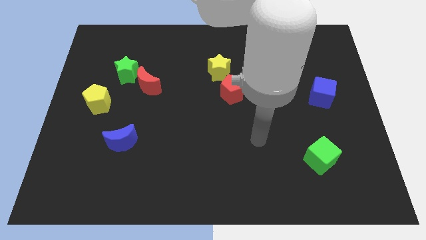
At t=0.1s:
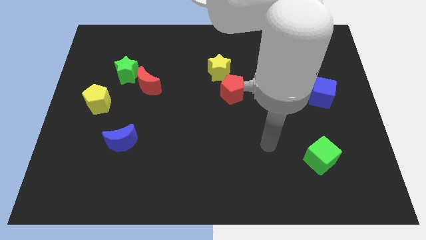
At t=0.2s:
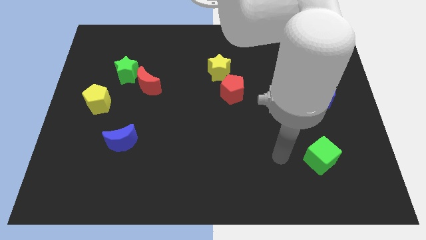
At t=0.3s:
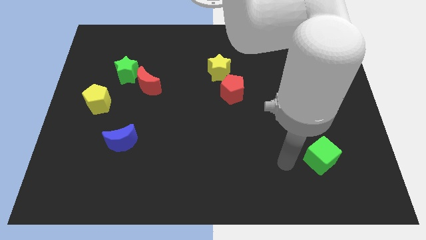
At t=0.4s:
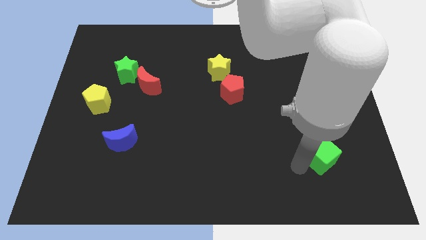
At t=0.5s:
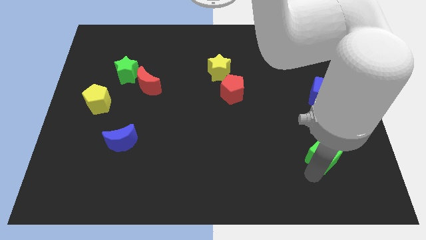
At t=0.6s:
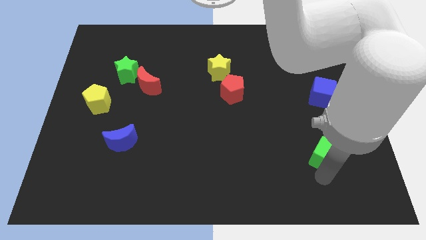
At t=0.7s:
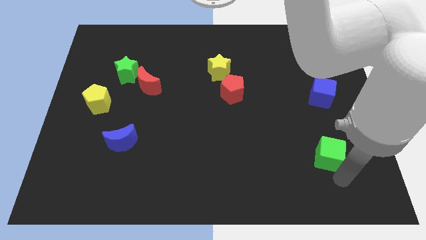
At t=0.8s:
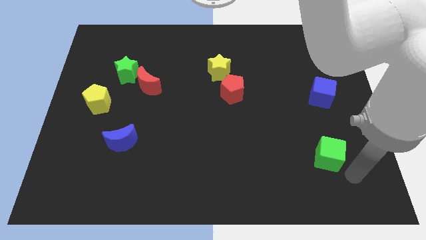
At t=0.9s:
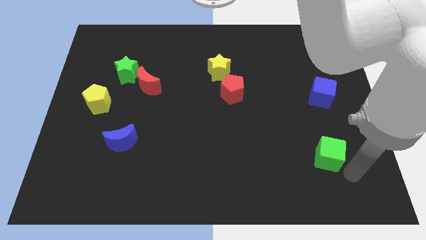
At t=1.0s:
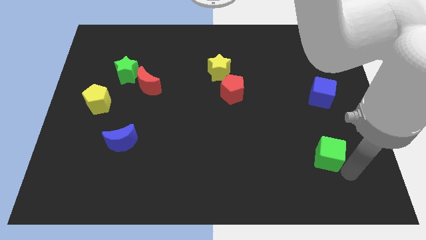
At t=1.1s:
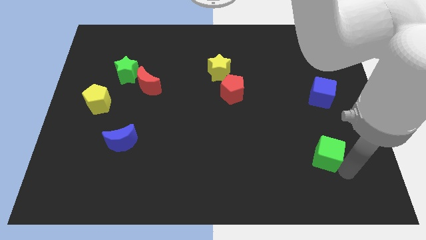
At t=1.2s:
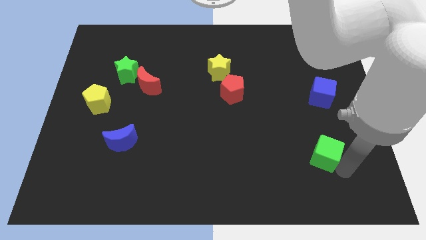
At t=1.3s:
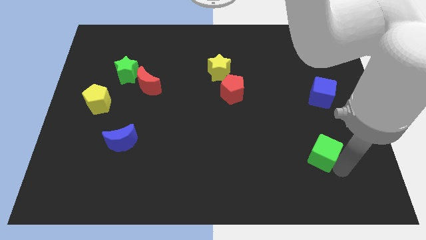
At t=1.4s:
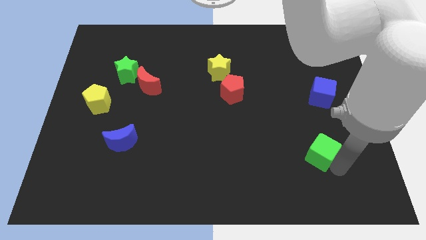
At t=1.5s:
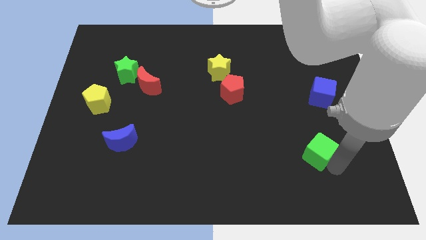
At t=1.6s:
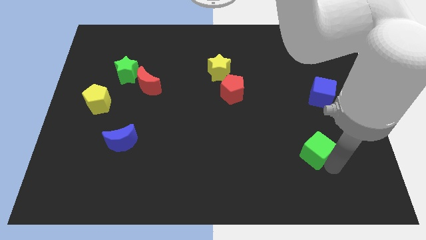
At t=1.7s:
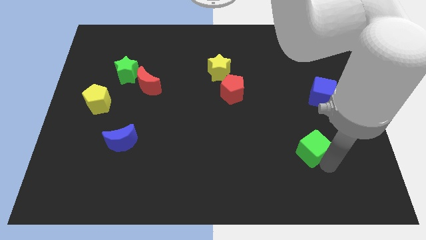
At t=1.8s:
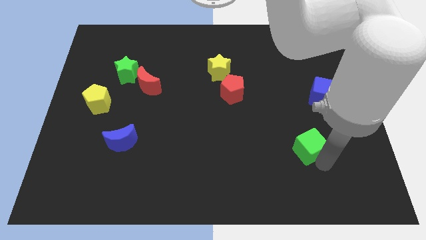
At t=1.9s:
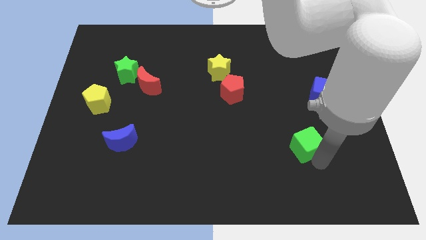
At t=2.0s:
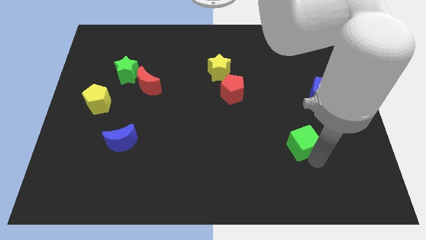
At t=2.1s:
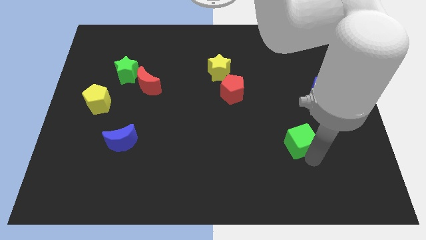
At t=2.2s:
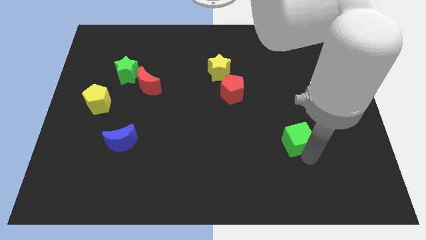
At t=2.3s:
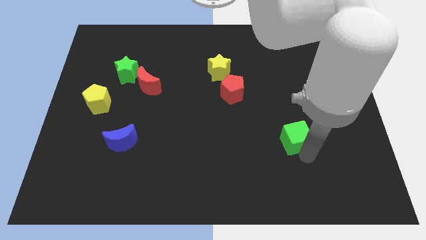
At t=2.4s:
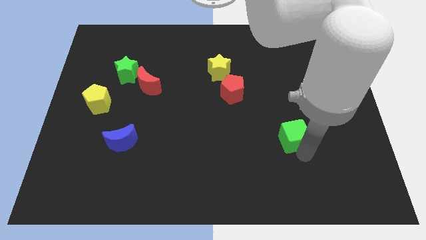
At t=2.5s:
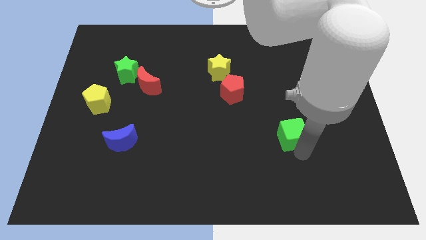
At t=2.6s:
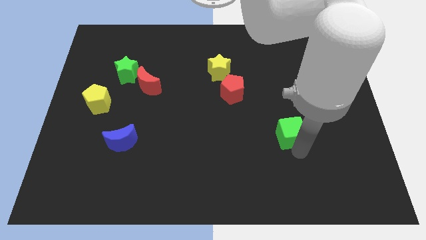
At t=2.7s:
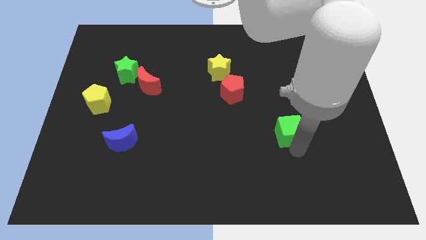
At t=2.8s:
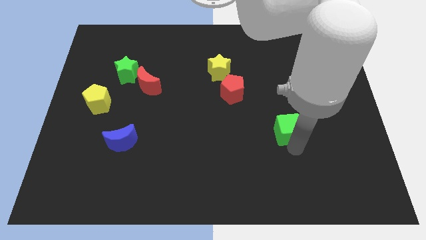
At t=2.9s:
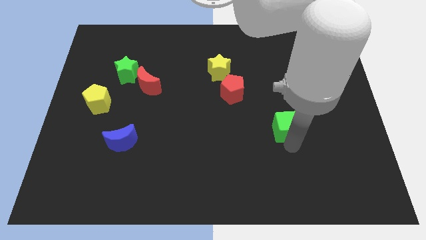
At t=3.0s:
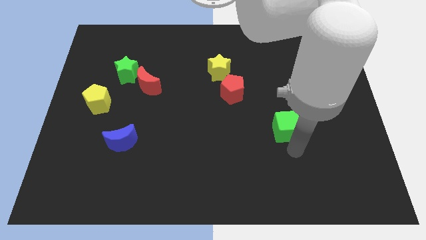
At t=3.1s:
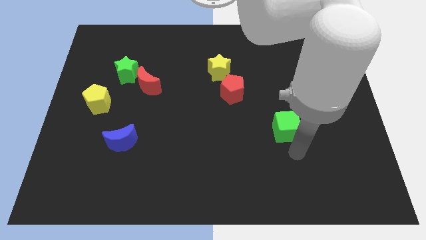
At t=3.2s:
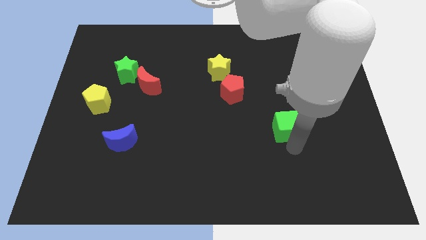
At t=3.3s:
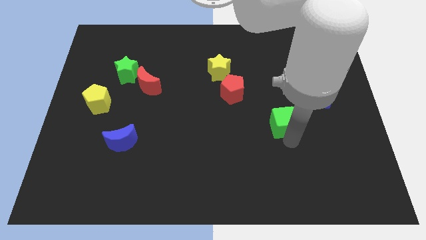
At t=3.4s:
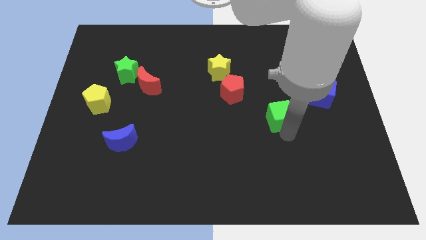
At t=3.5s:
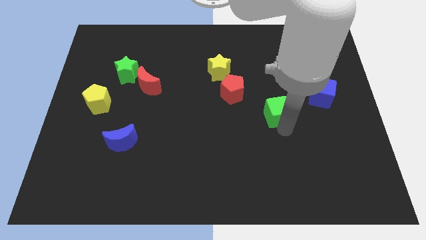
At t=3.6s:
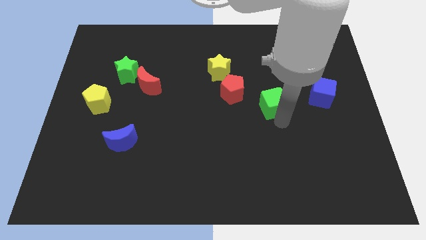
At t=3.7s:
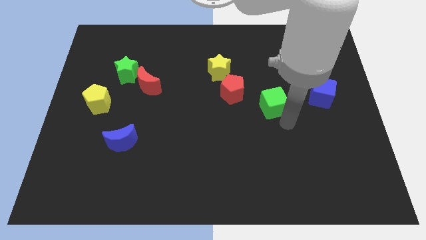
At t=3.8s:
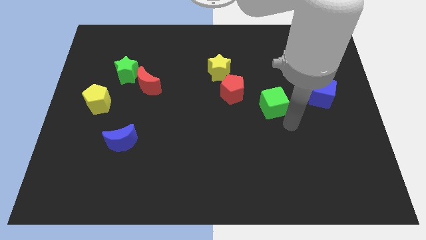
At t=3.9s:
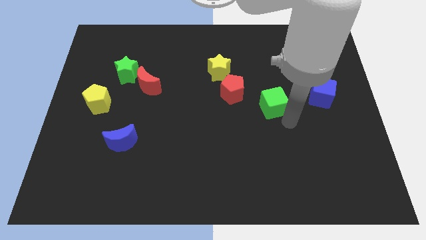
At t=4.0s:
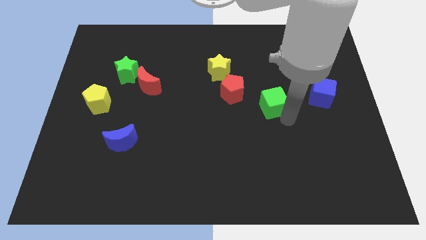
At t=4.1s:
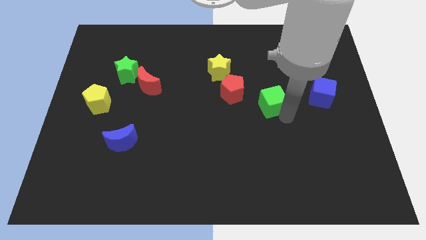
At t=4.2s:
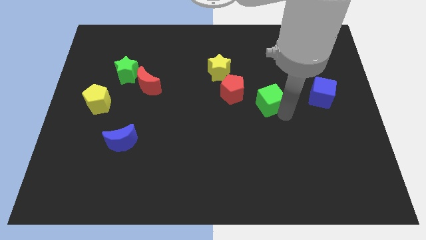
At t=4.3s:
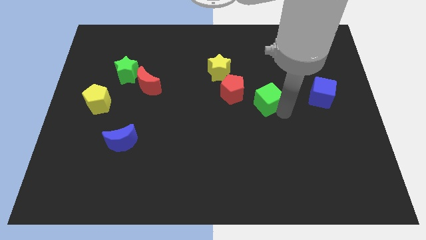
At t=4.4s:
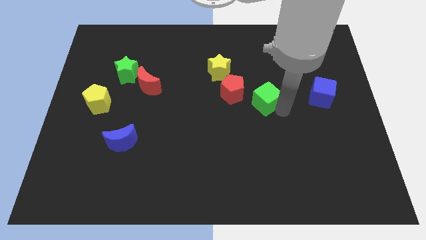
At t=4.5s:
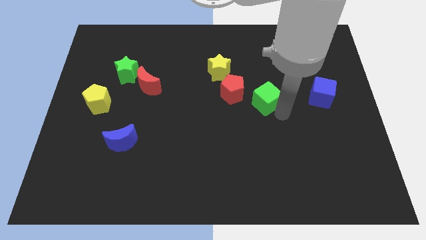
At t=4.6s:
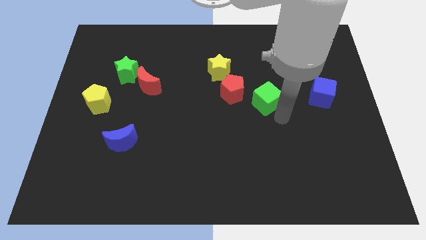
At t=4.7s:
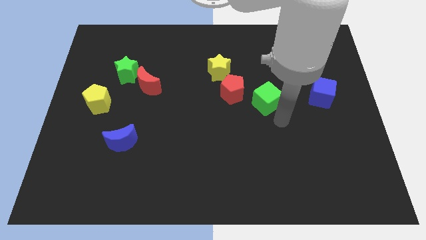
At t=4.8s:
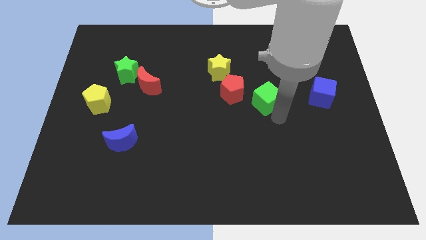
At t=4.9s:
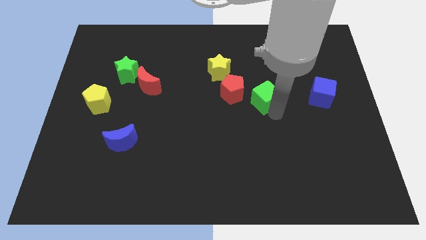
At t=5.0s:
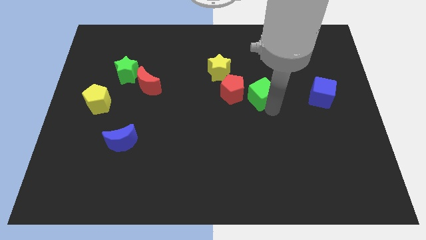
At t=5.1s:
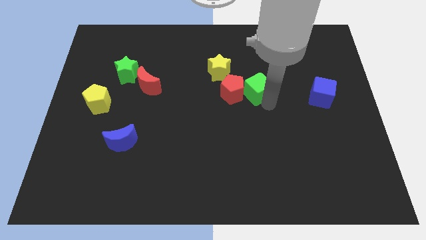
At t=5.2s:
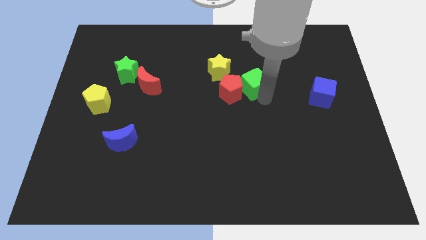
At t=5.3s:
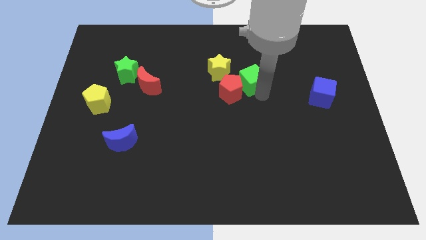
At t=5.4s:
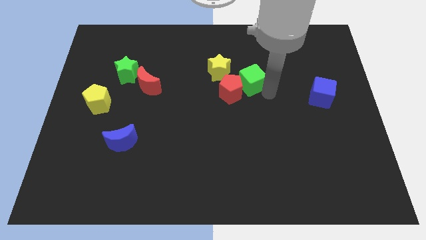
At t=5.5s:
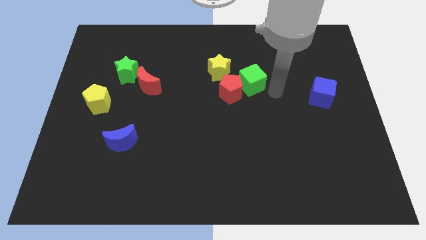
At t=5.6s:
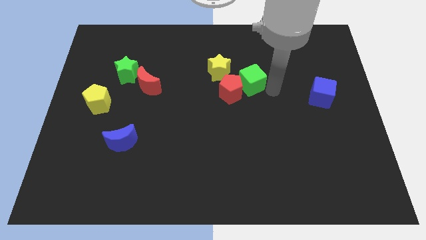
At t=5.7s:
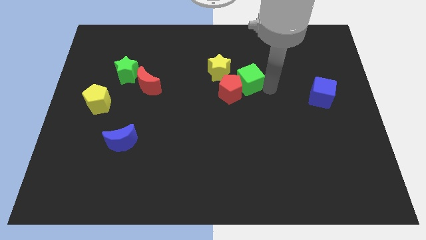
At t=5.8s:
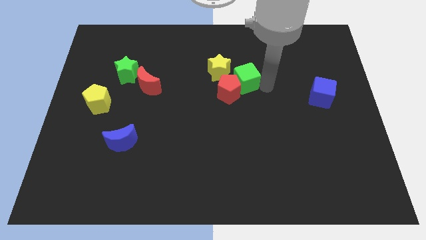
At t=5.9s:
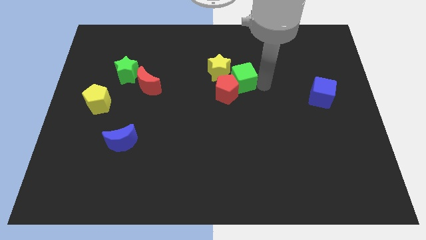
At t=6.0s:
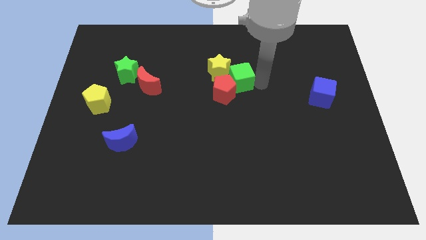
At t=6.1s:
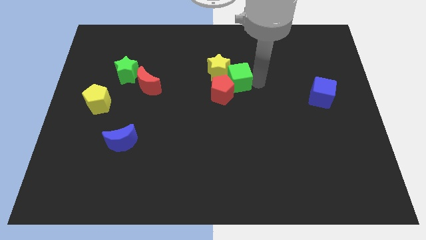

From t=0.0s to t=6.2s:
move the green cube towards the yellow star

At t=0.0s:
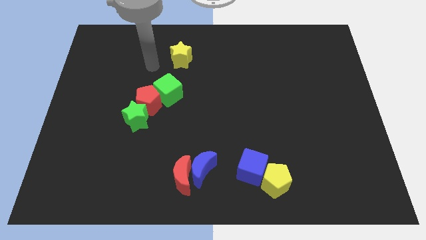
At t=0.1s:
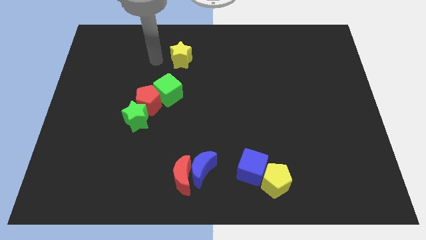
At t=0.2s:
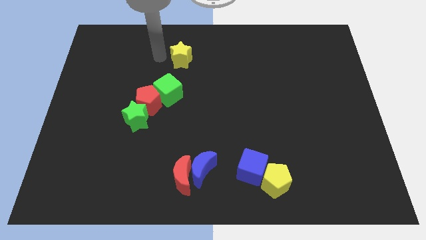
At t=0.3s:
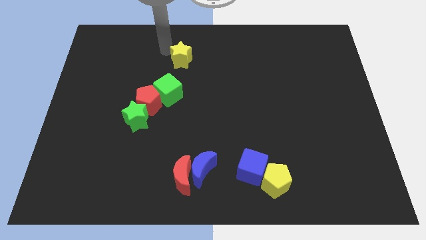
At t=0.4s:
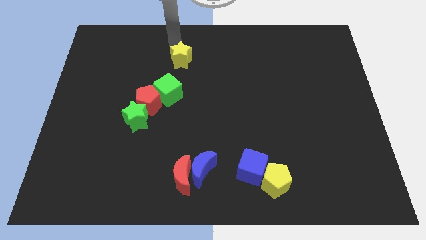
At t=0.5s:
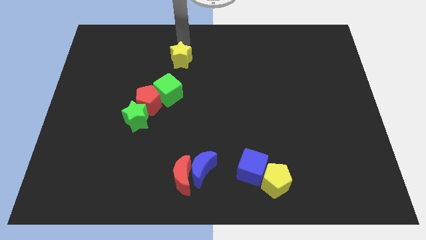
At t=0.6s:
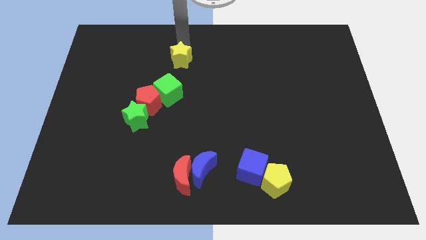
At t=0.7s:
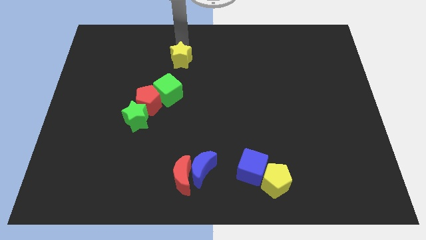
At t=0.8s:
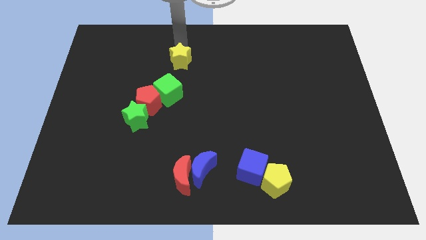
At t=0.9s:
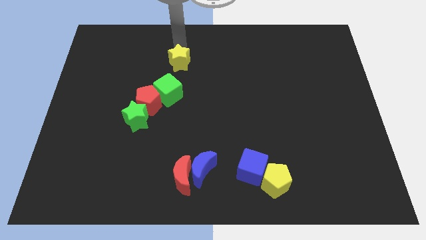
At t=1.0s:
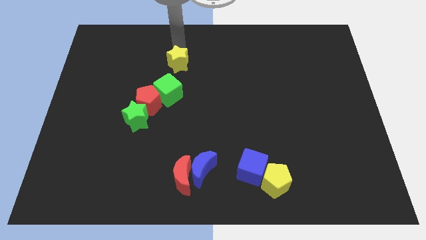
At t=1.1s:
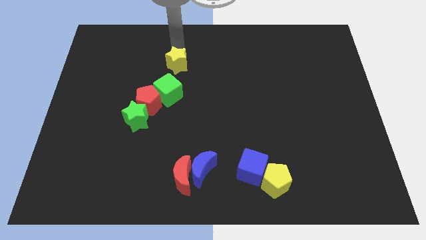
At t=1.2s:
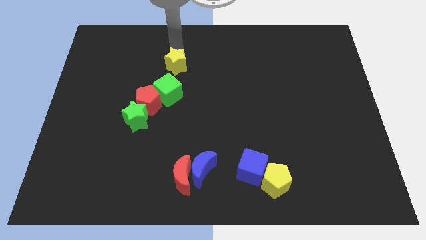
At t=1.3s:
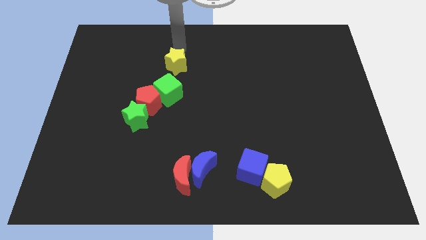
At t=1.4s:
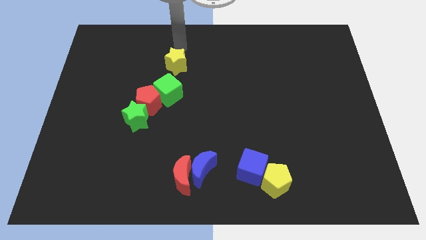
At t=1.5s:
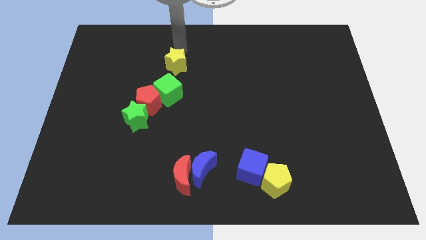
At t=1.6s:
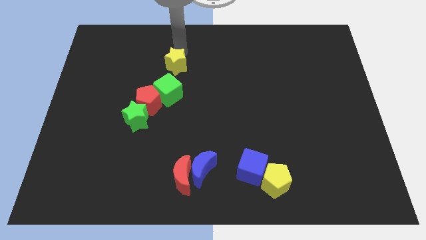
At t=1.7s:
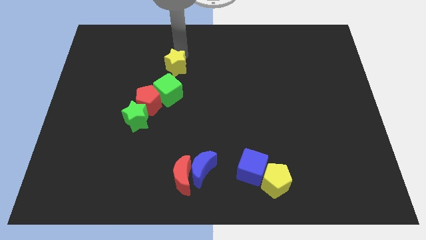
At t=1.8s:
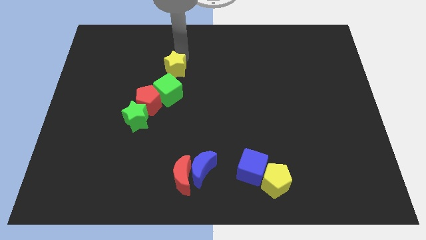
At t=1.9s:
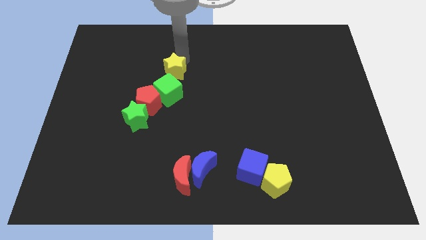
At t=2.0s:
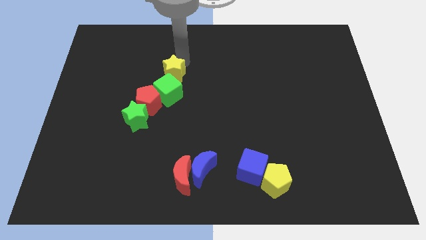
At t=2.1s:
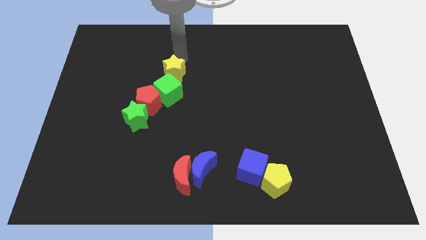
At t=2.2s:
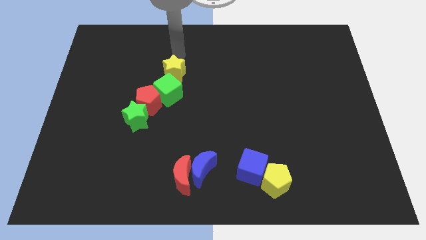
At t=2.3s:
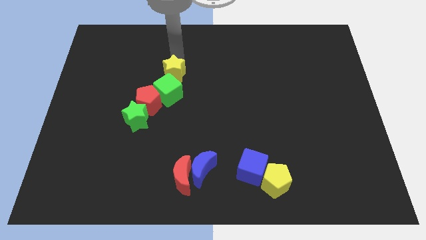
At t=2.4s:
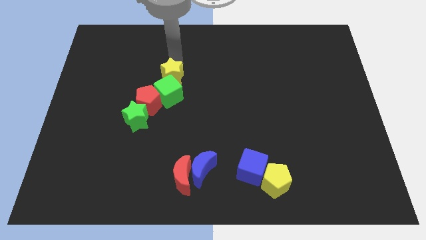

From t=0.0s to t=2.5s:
move the yellow star to the green cube
